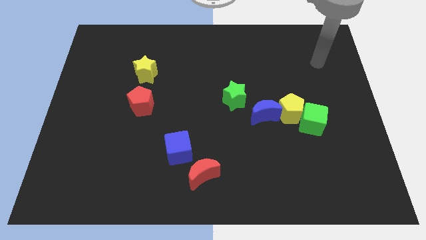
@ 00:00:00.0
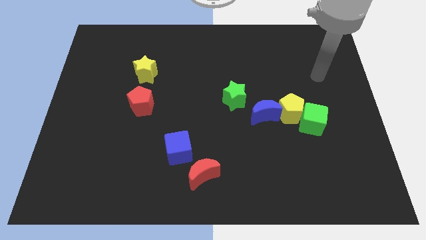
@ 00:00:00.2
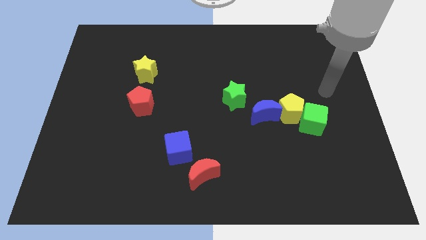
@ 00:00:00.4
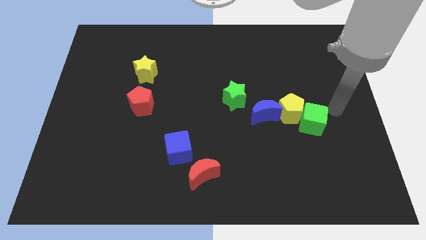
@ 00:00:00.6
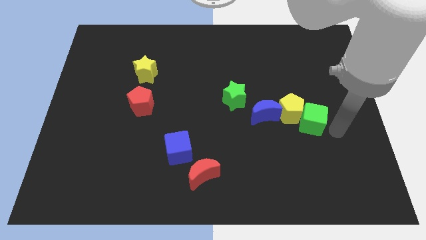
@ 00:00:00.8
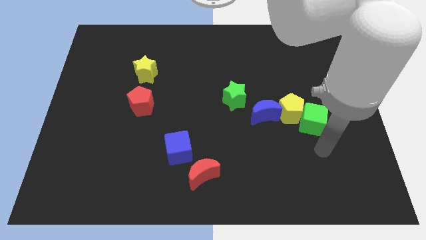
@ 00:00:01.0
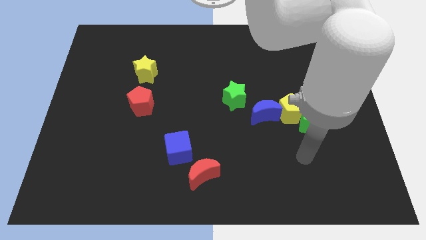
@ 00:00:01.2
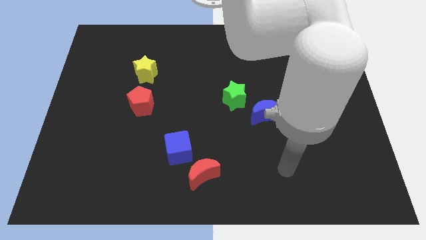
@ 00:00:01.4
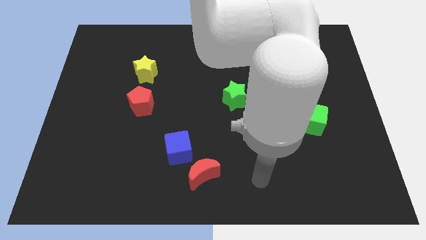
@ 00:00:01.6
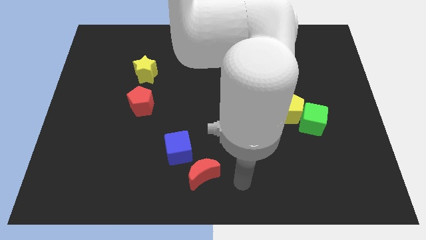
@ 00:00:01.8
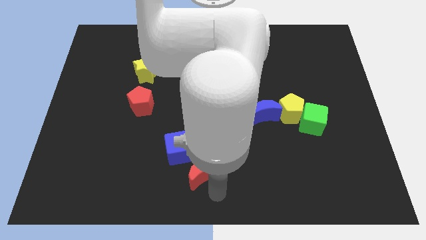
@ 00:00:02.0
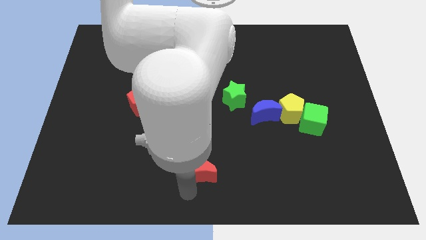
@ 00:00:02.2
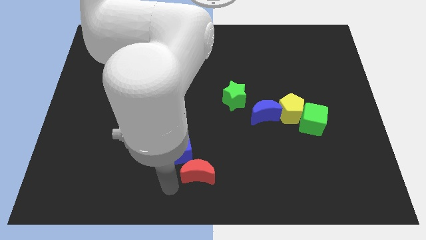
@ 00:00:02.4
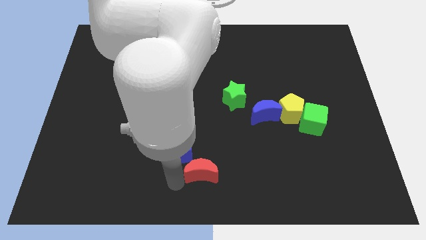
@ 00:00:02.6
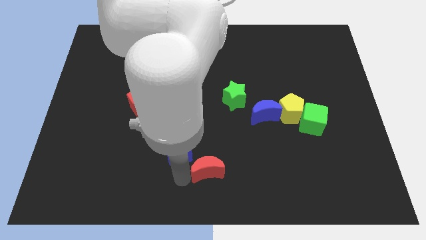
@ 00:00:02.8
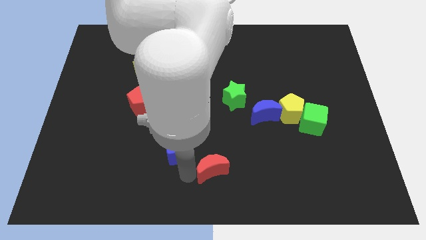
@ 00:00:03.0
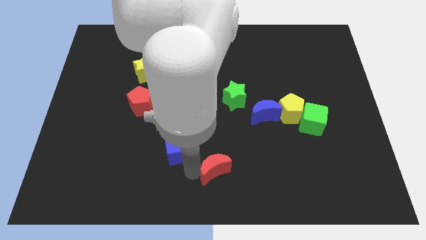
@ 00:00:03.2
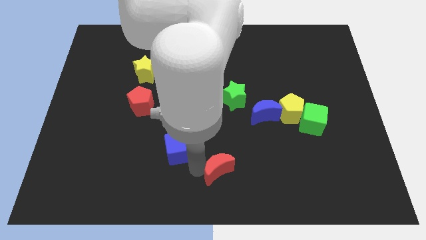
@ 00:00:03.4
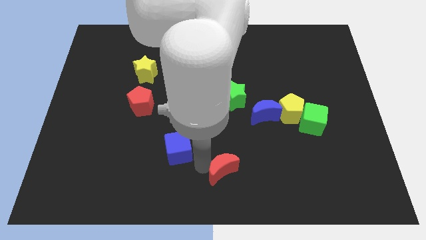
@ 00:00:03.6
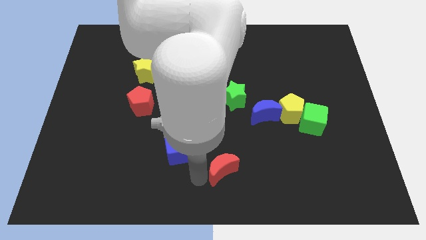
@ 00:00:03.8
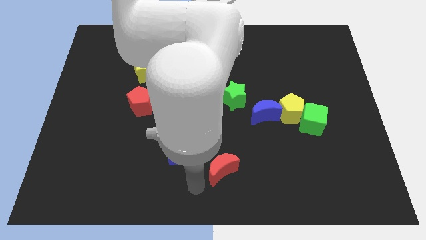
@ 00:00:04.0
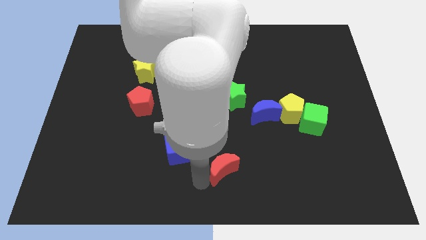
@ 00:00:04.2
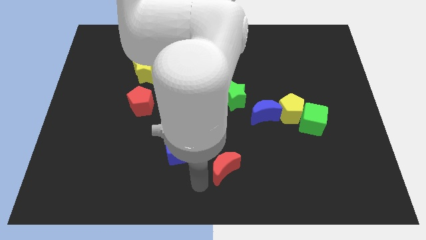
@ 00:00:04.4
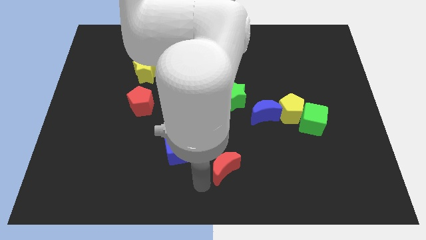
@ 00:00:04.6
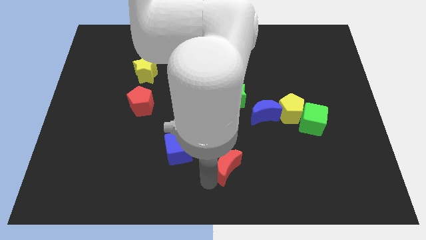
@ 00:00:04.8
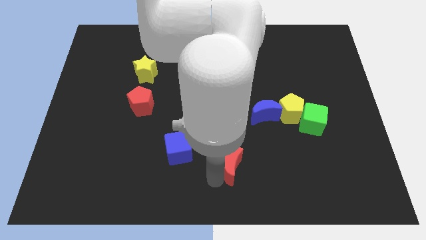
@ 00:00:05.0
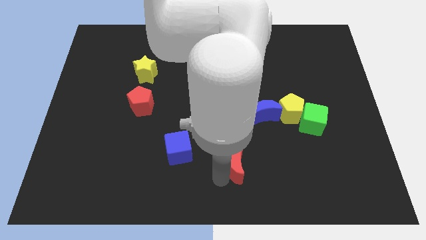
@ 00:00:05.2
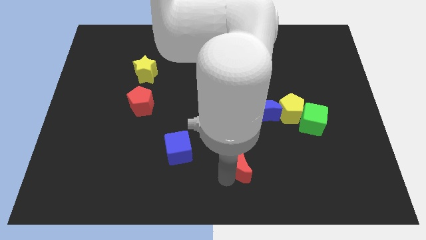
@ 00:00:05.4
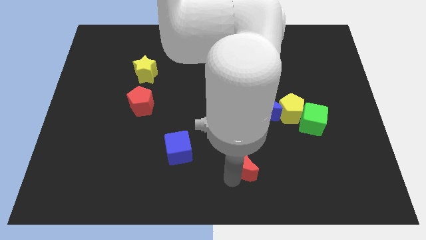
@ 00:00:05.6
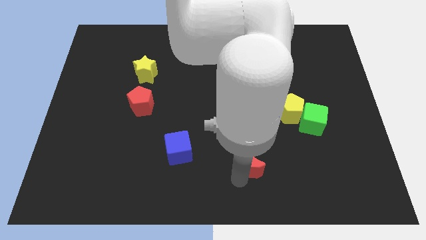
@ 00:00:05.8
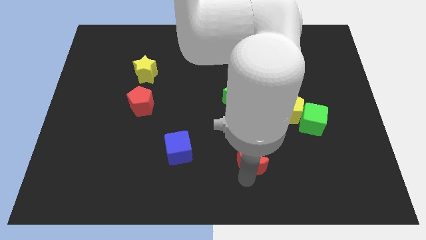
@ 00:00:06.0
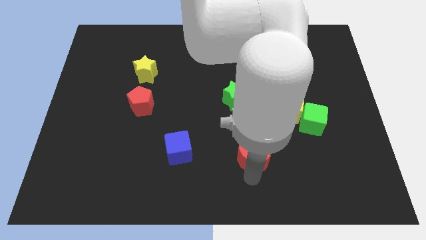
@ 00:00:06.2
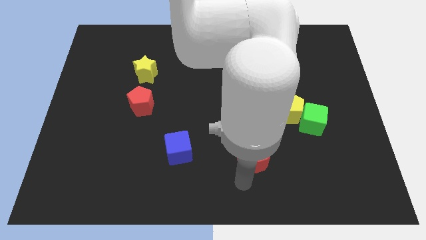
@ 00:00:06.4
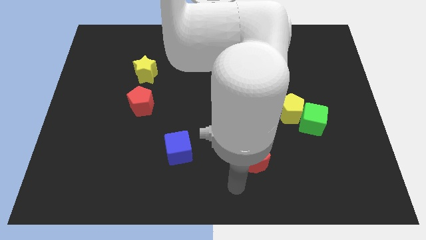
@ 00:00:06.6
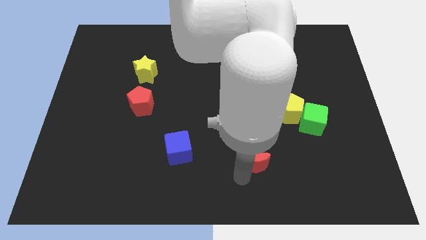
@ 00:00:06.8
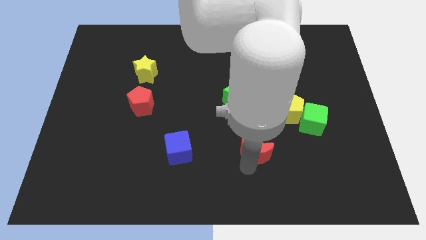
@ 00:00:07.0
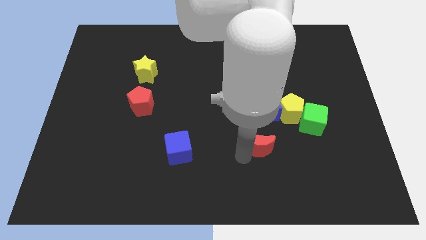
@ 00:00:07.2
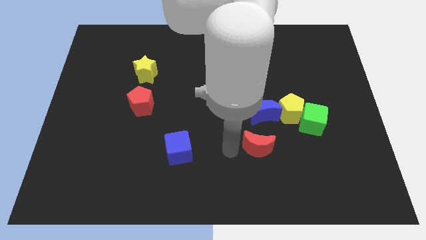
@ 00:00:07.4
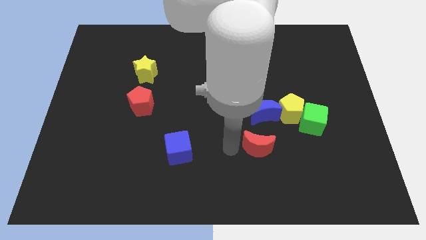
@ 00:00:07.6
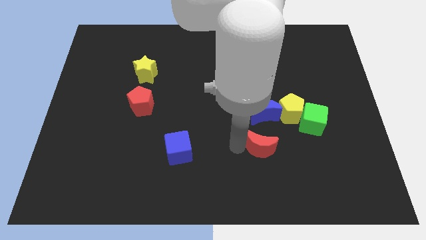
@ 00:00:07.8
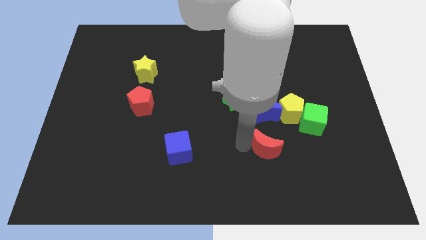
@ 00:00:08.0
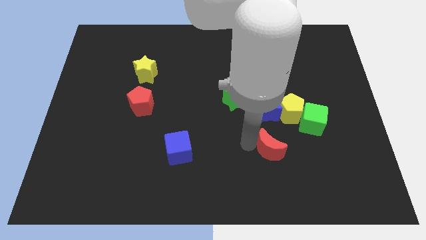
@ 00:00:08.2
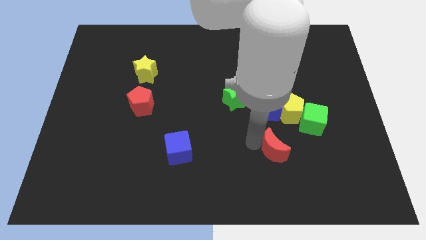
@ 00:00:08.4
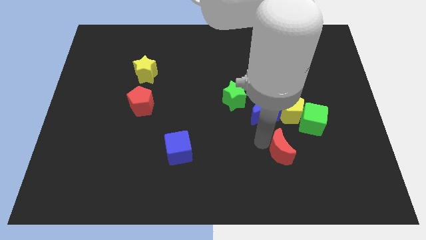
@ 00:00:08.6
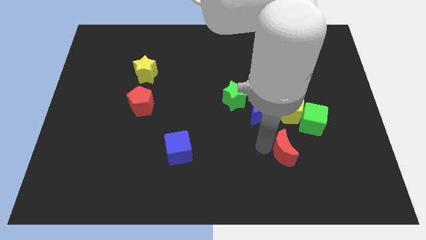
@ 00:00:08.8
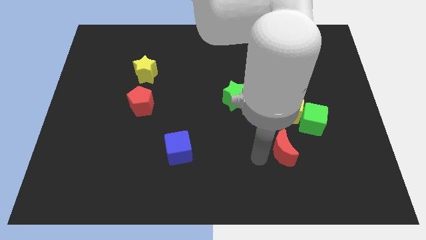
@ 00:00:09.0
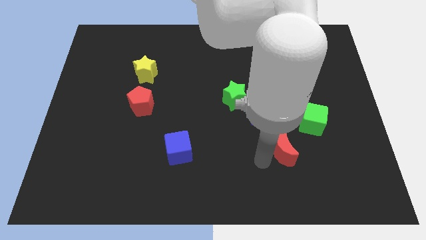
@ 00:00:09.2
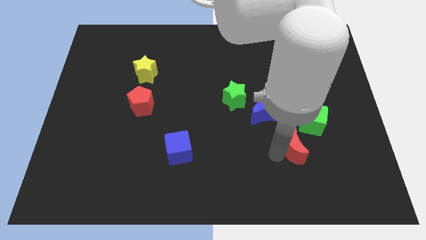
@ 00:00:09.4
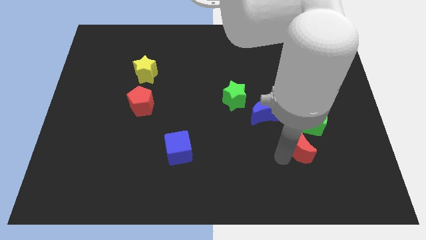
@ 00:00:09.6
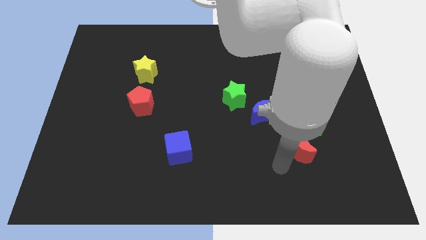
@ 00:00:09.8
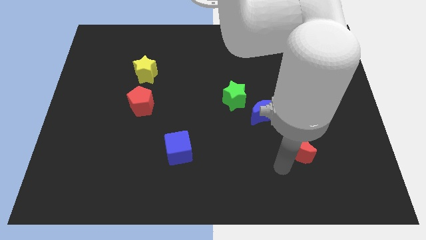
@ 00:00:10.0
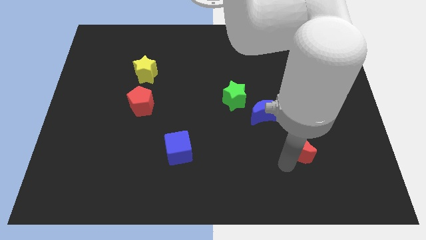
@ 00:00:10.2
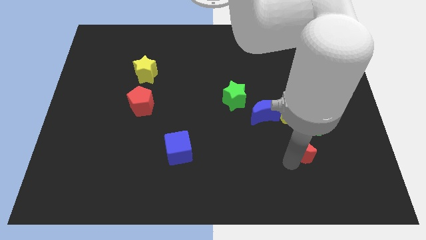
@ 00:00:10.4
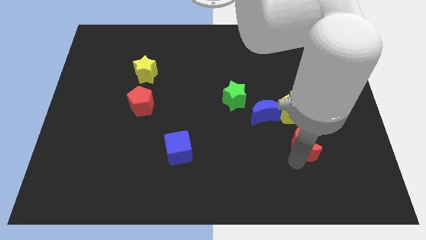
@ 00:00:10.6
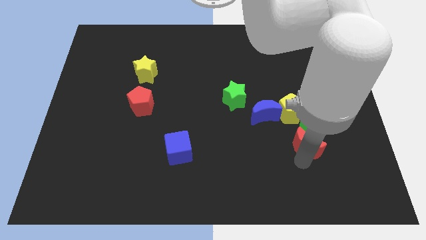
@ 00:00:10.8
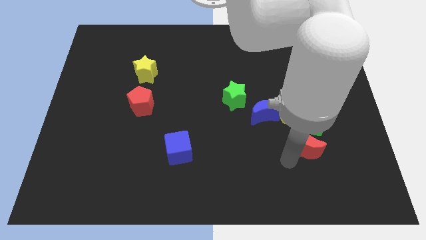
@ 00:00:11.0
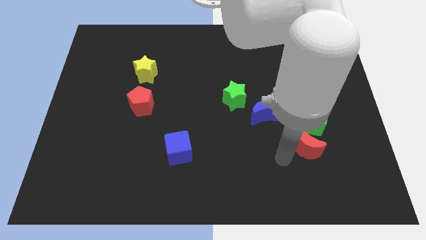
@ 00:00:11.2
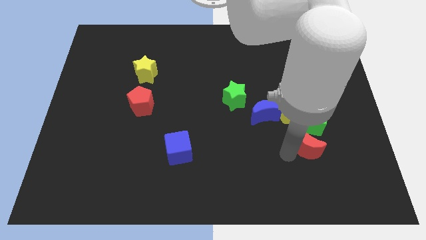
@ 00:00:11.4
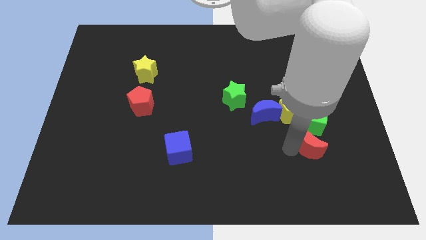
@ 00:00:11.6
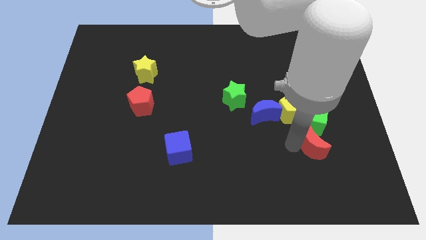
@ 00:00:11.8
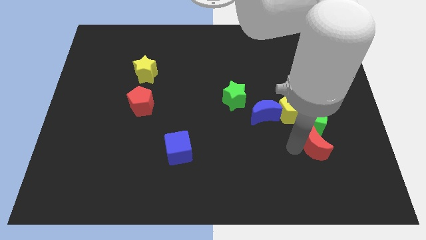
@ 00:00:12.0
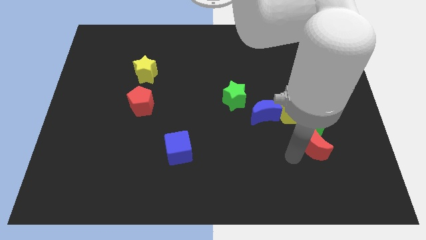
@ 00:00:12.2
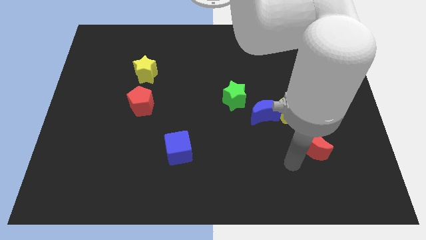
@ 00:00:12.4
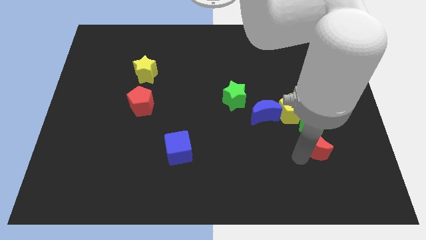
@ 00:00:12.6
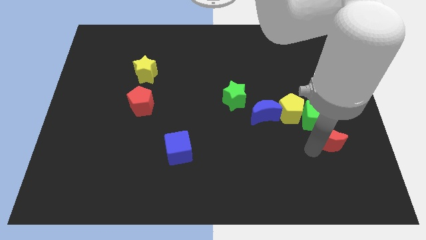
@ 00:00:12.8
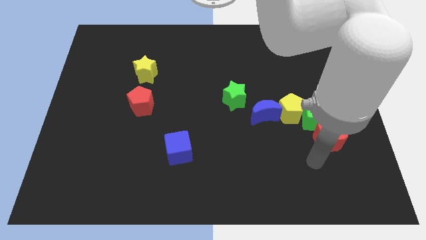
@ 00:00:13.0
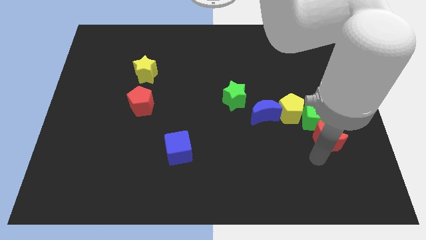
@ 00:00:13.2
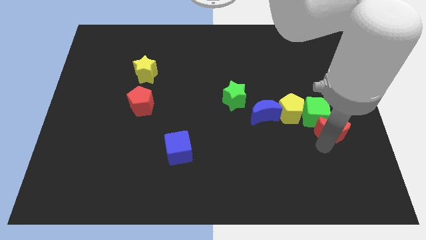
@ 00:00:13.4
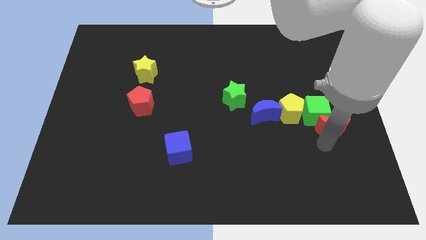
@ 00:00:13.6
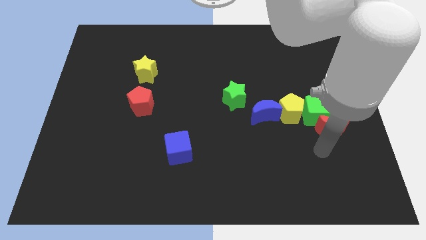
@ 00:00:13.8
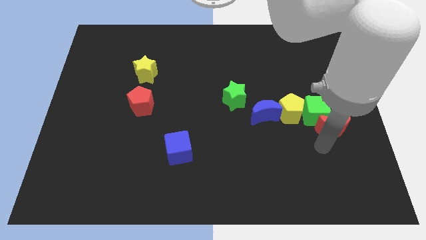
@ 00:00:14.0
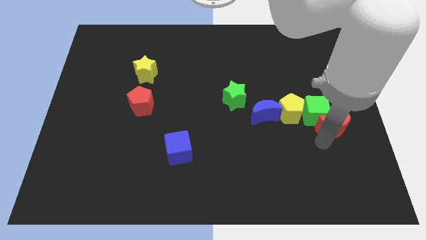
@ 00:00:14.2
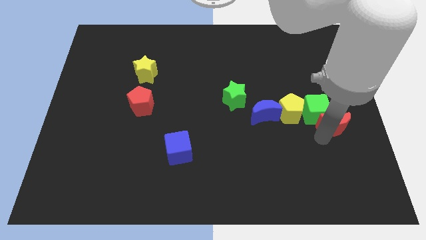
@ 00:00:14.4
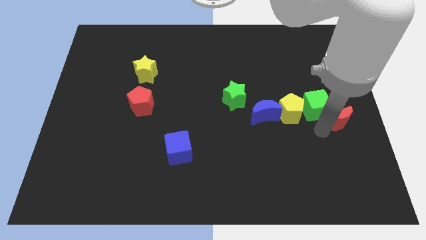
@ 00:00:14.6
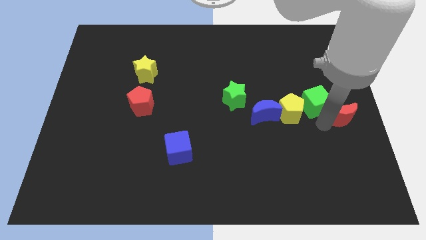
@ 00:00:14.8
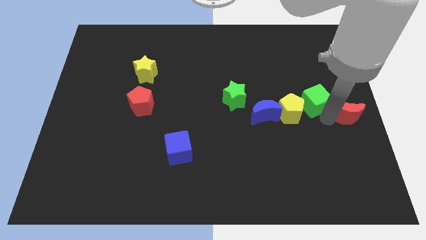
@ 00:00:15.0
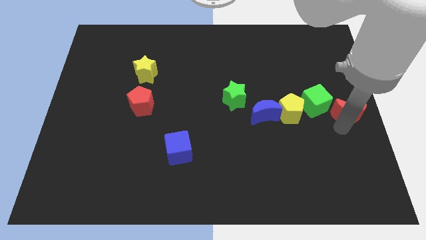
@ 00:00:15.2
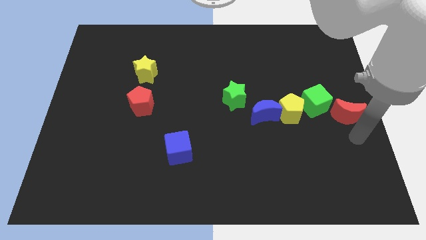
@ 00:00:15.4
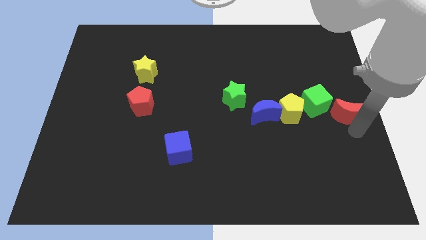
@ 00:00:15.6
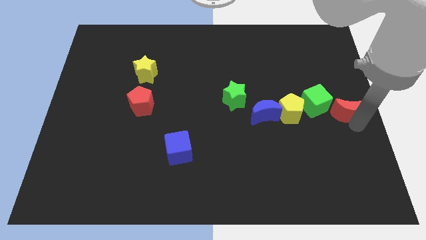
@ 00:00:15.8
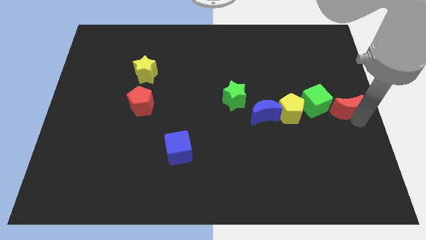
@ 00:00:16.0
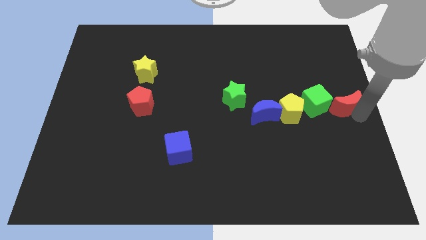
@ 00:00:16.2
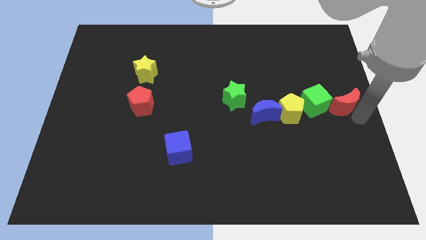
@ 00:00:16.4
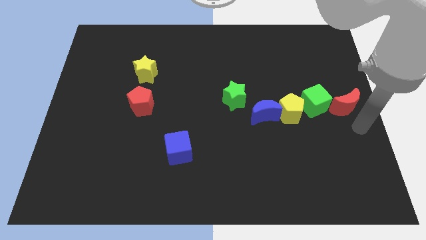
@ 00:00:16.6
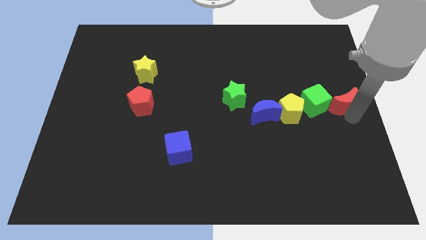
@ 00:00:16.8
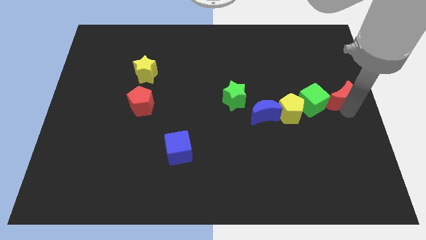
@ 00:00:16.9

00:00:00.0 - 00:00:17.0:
move the red moon diagonally up and to the right of the green cube
